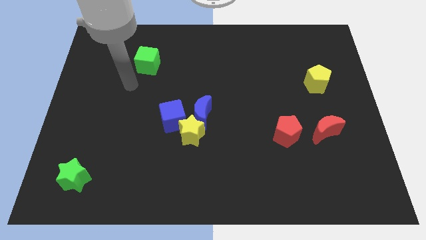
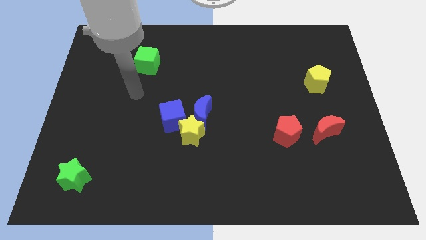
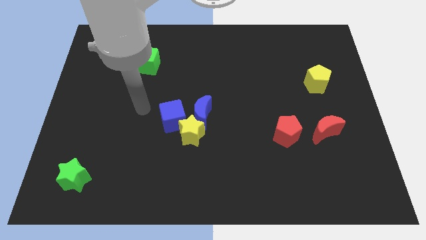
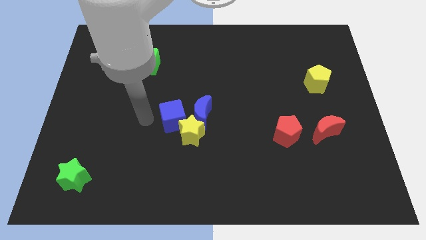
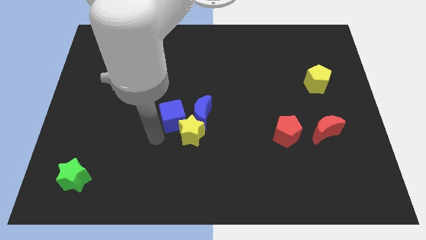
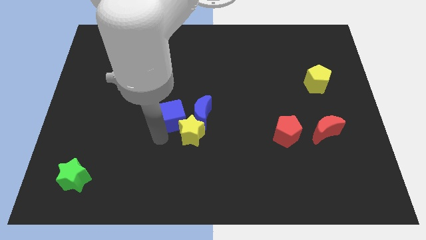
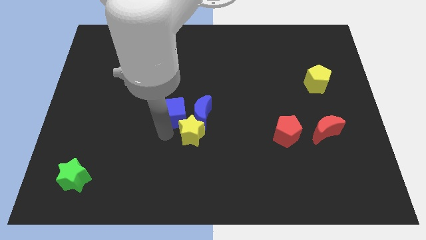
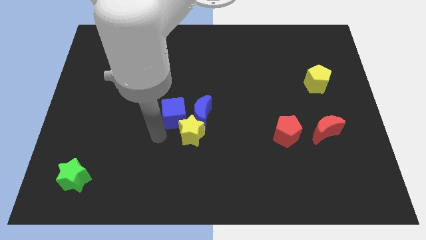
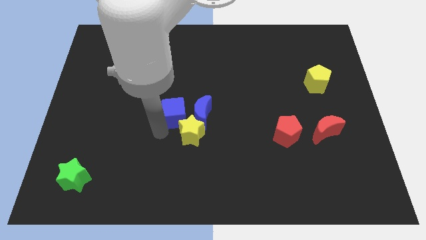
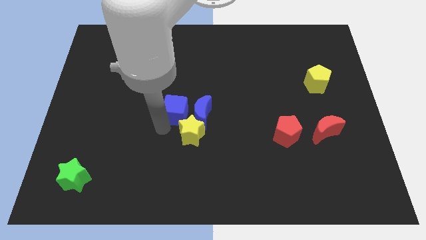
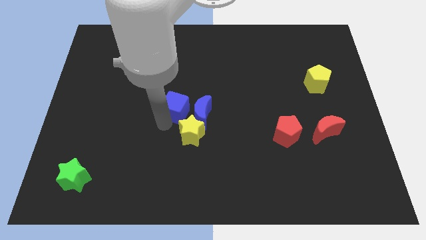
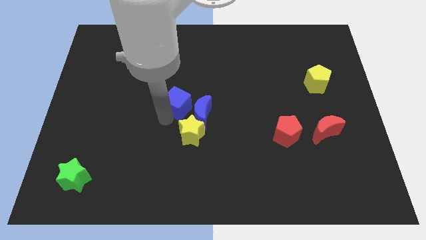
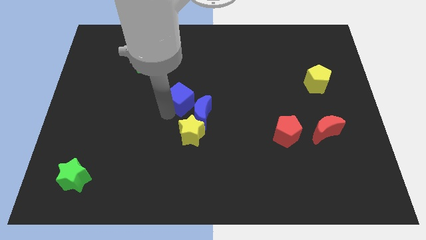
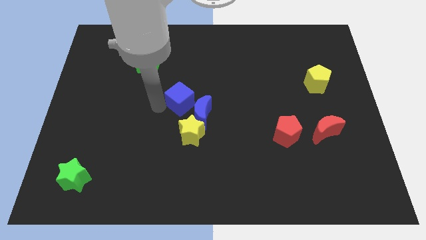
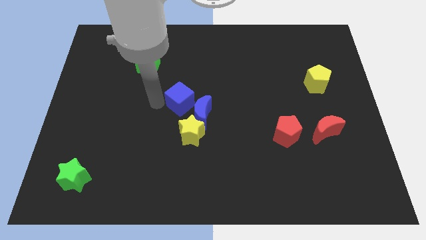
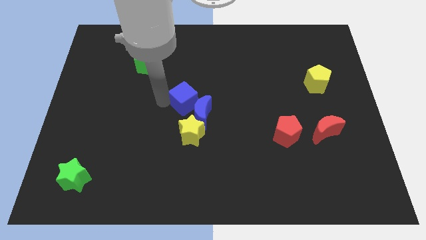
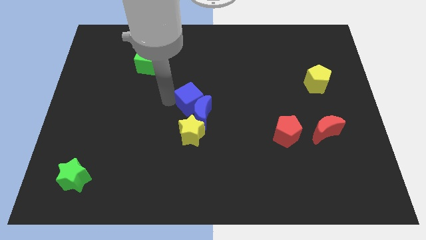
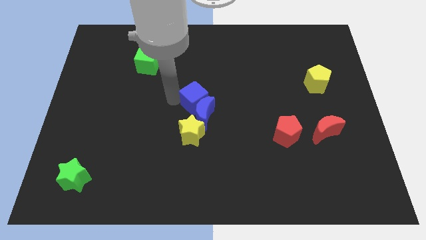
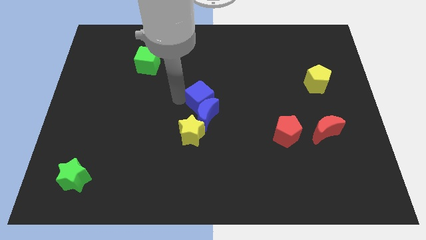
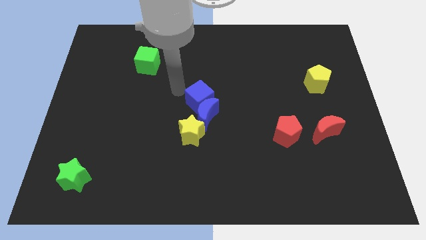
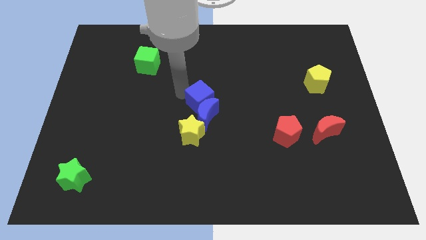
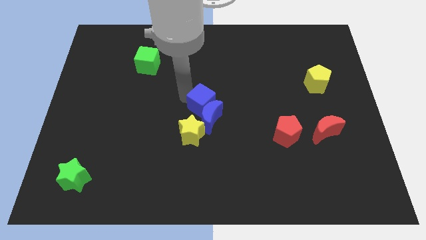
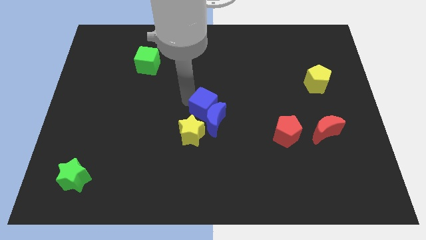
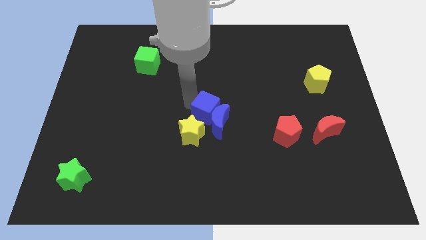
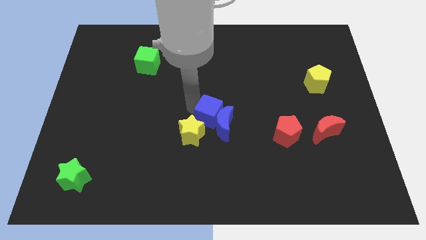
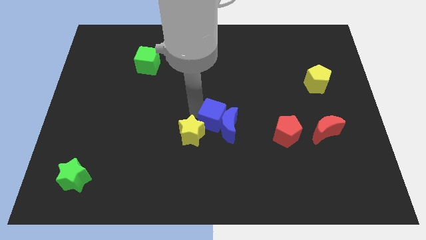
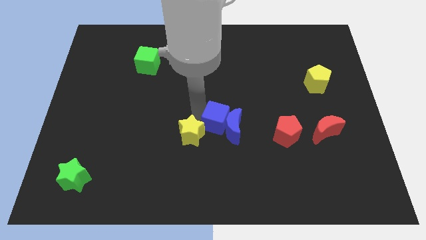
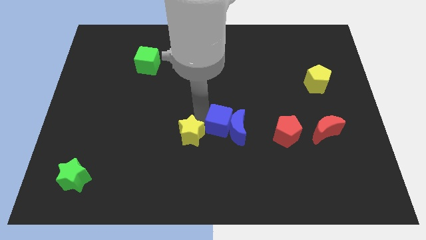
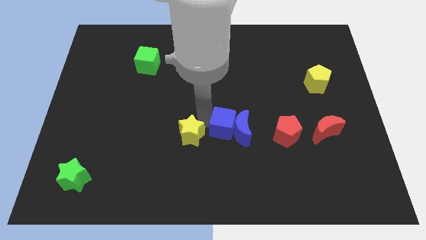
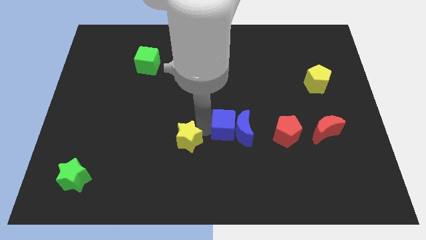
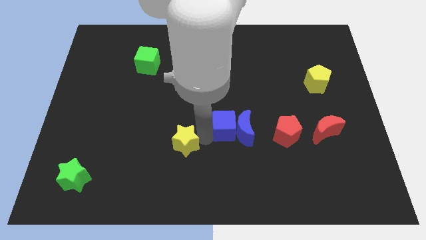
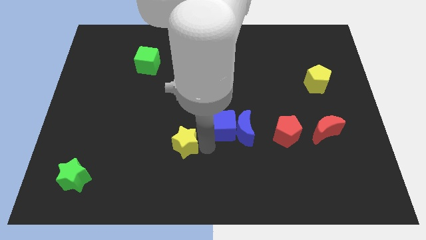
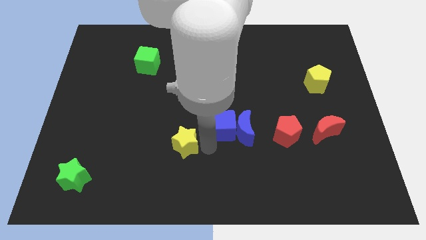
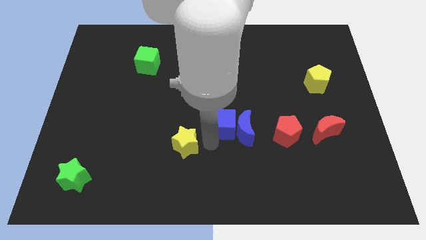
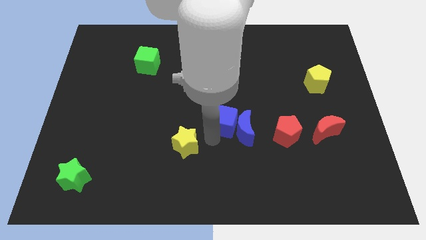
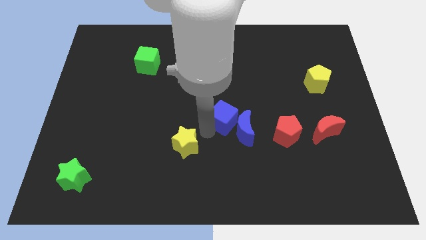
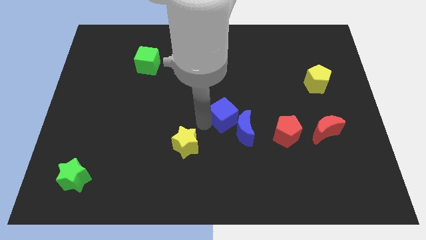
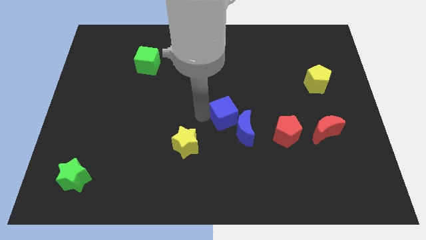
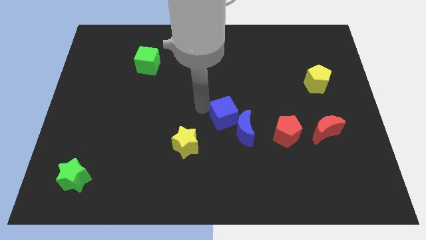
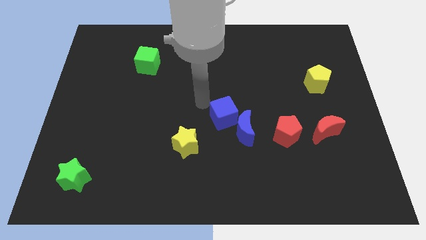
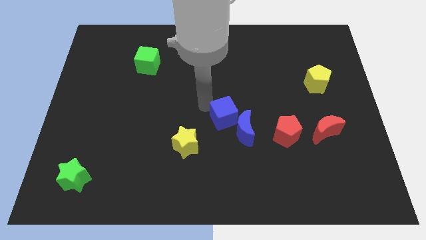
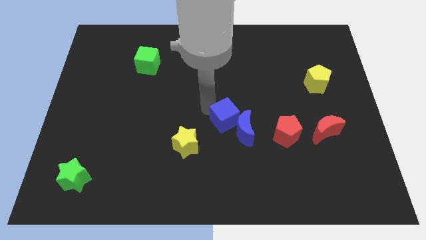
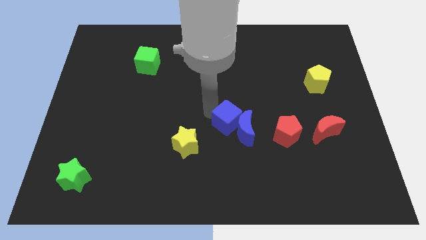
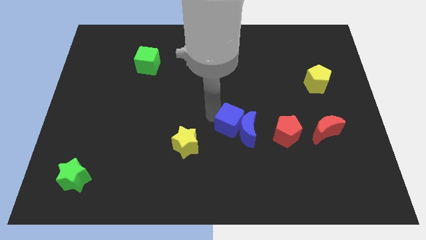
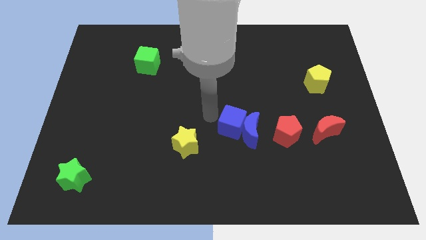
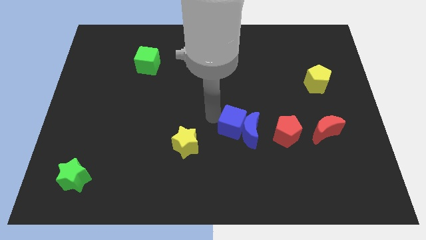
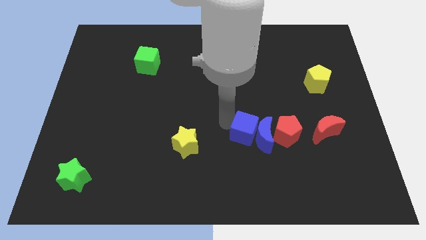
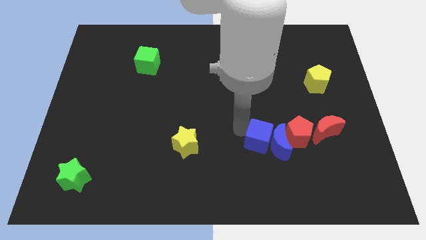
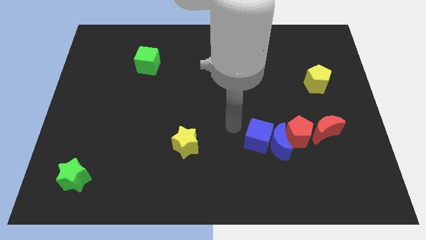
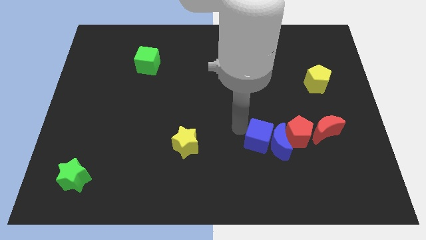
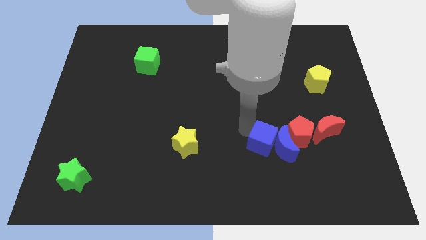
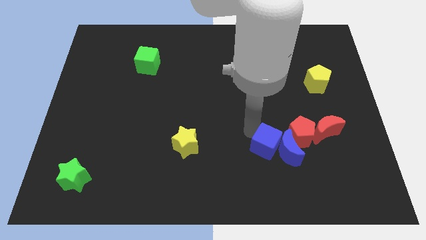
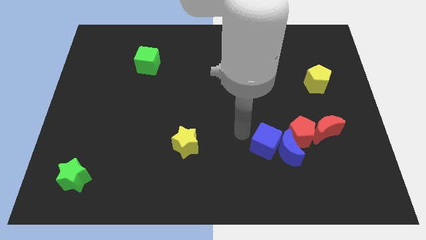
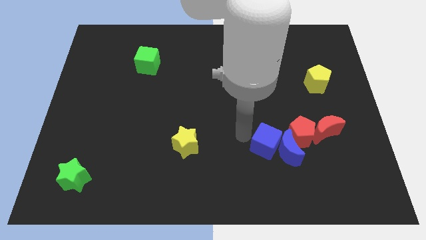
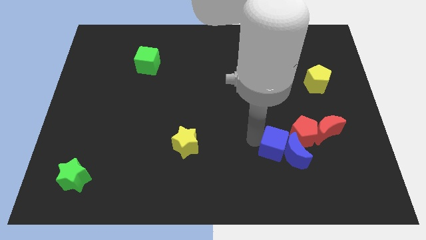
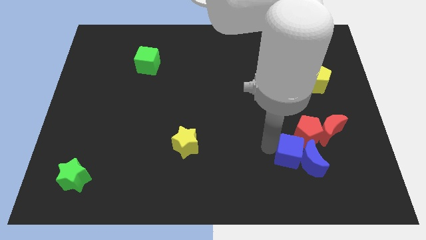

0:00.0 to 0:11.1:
push the blue cube to the bottom left side of the red moon

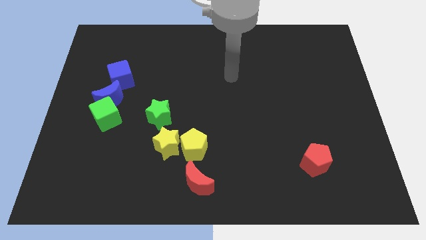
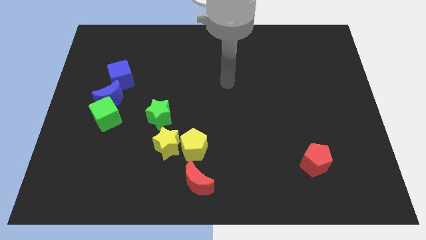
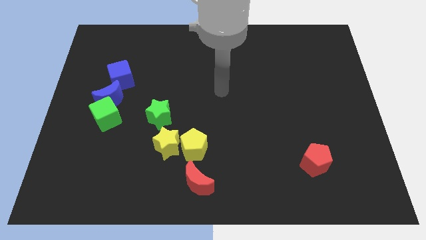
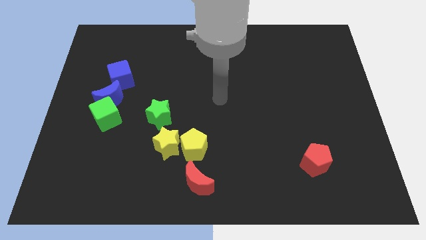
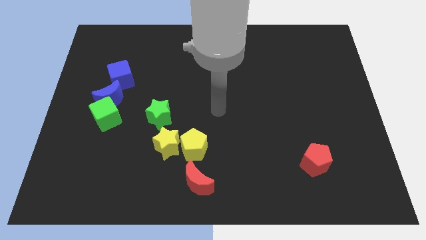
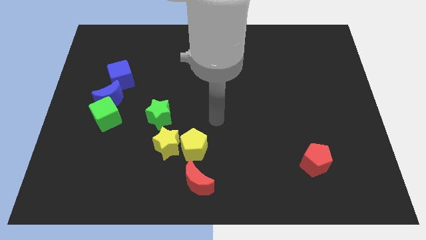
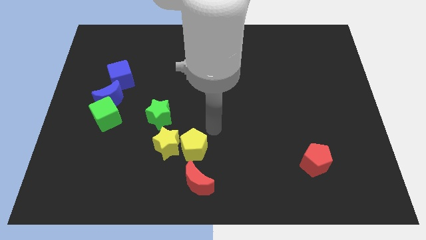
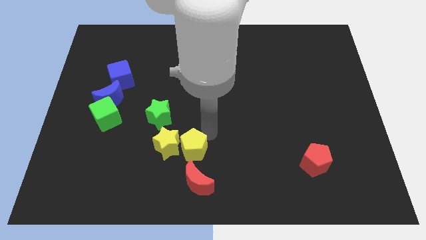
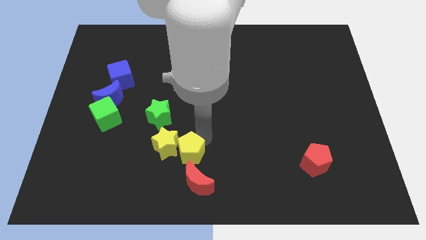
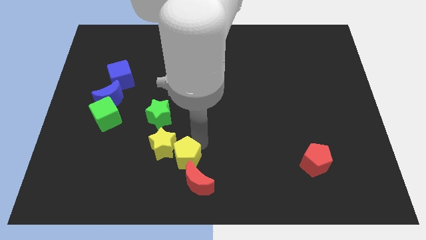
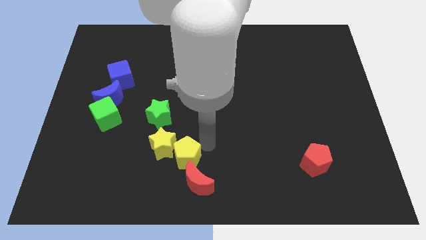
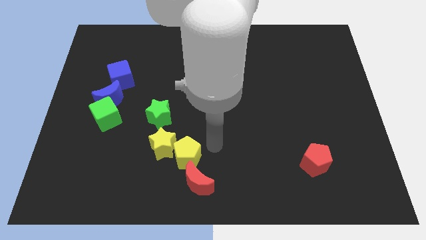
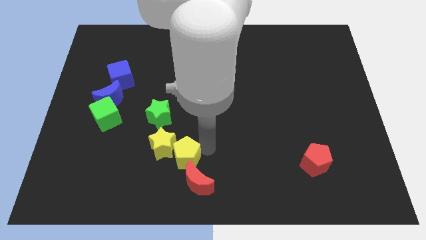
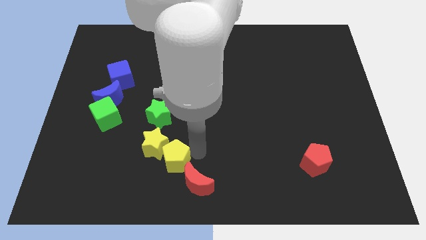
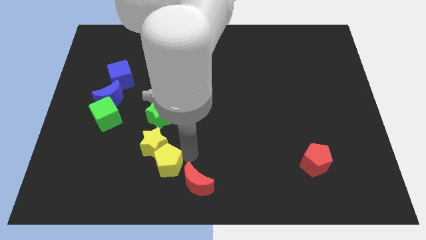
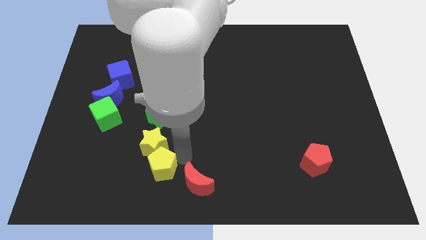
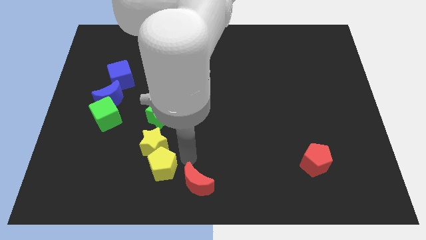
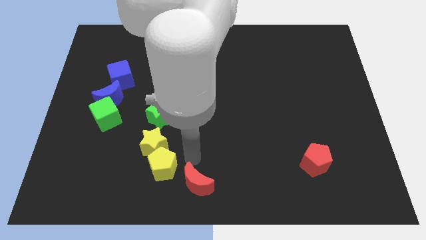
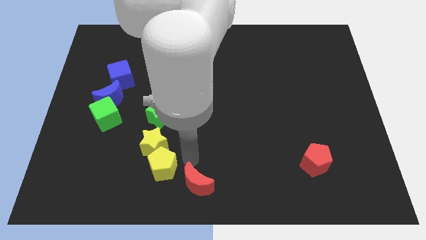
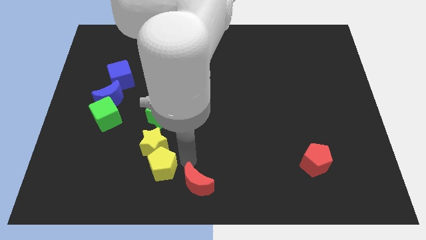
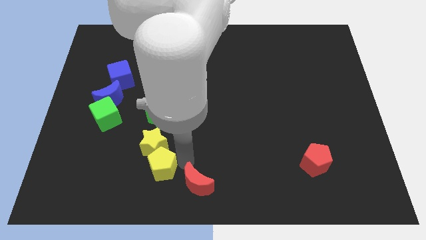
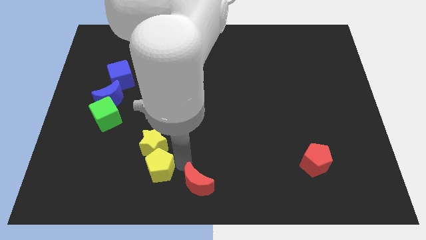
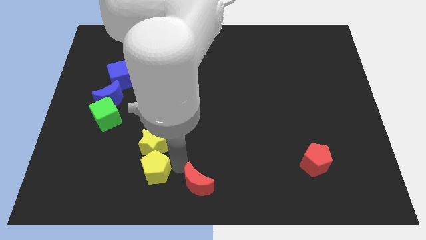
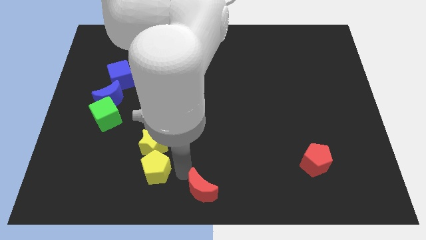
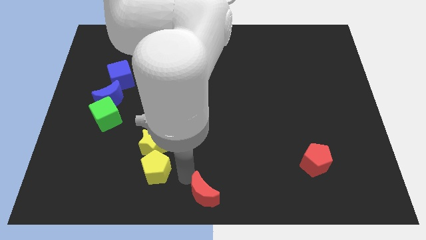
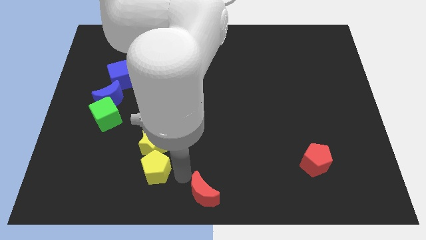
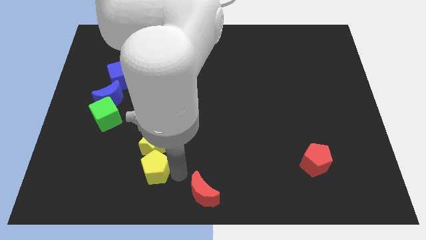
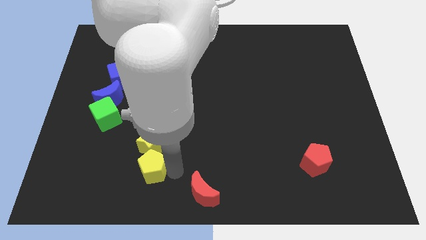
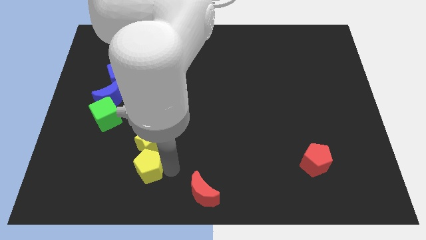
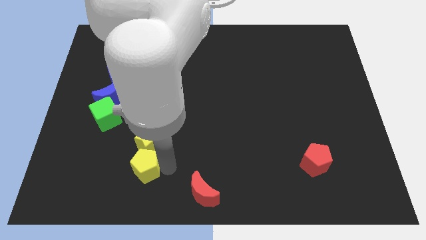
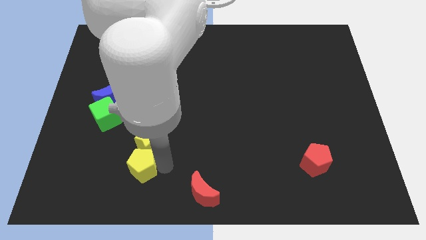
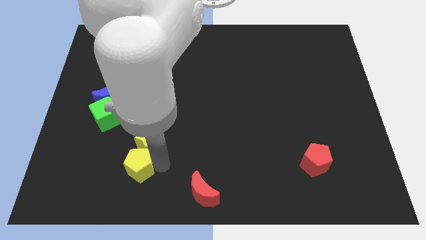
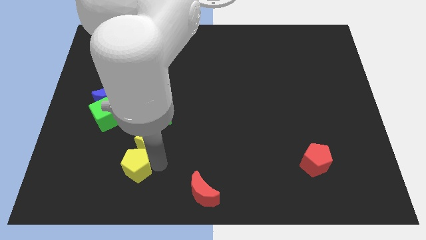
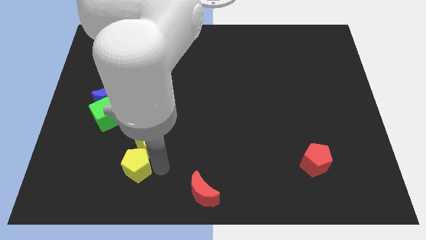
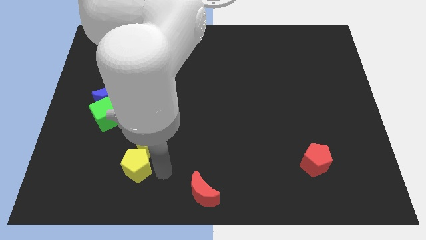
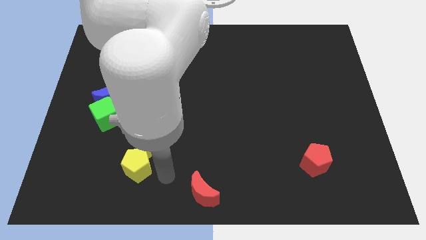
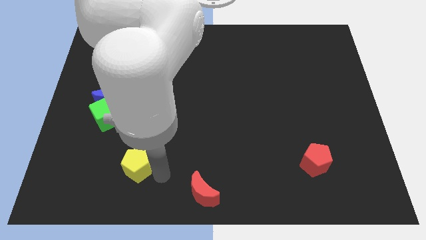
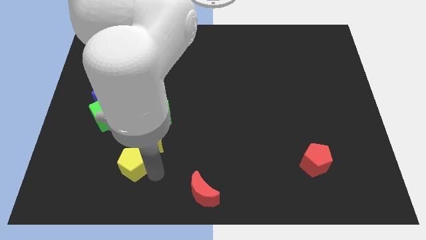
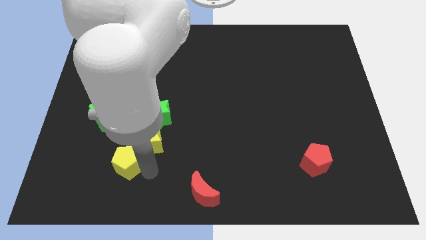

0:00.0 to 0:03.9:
slide the yellow pentagon left of the yellow star
